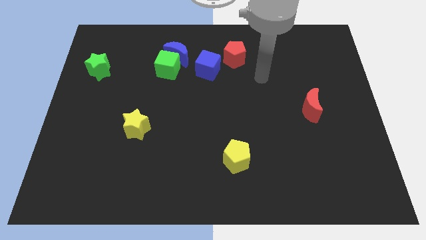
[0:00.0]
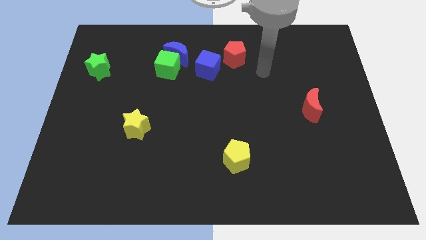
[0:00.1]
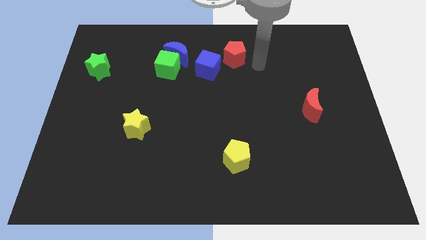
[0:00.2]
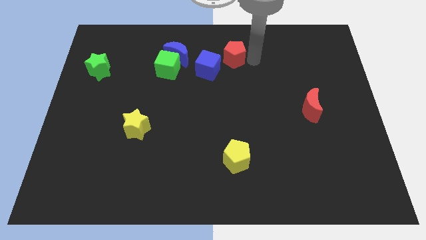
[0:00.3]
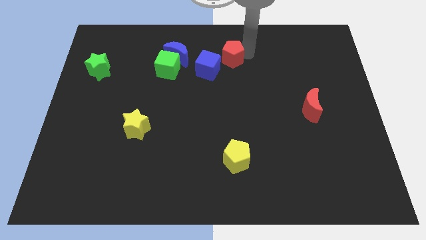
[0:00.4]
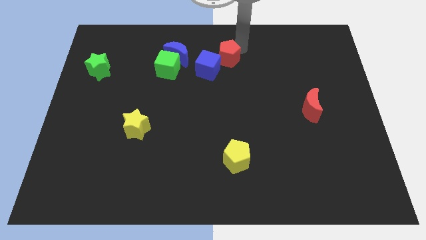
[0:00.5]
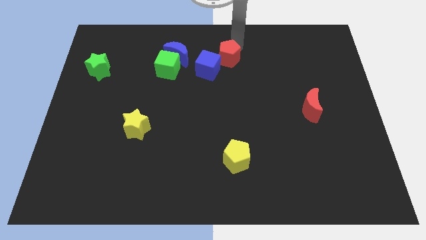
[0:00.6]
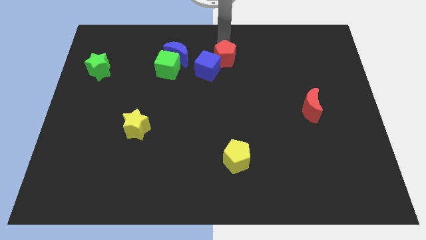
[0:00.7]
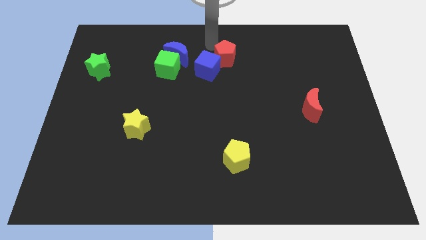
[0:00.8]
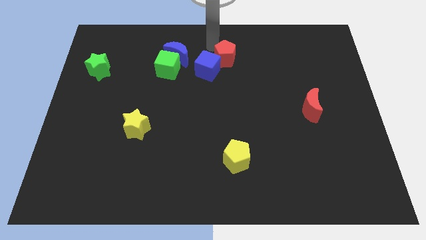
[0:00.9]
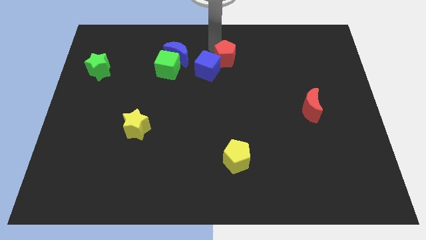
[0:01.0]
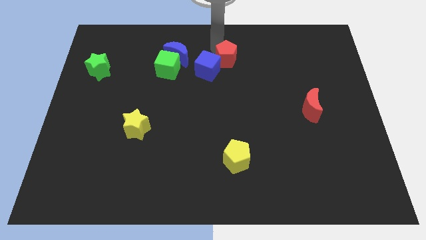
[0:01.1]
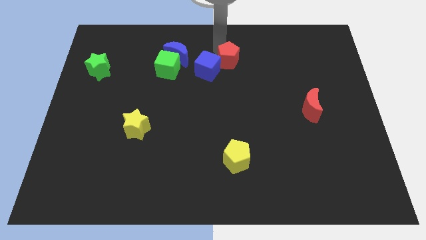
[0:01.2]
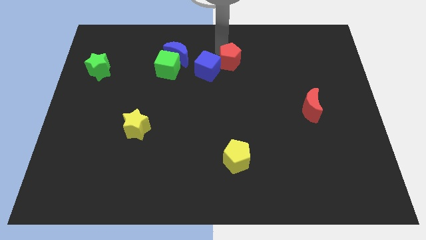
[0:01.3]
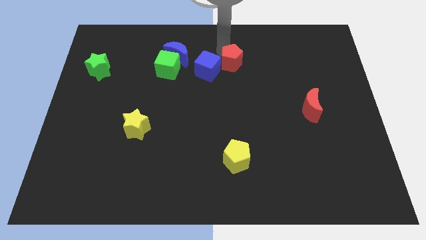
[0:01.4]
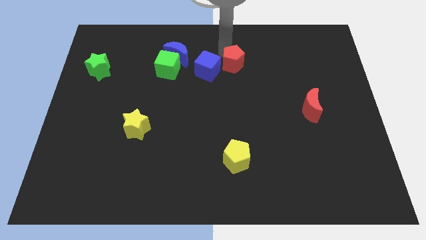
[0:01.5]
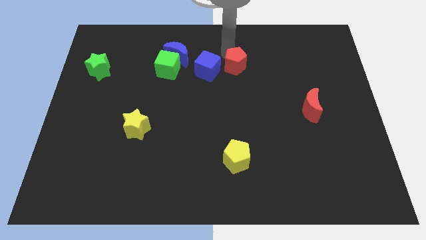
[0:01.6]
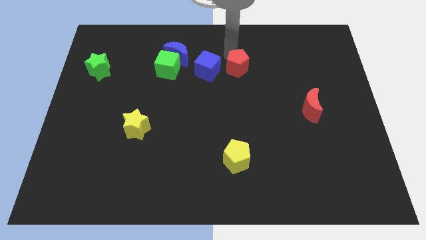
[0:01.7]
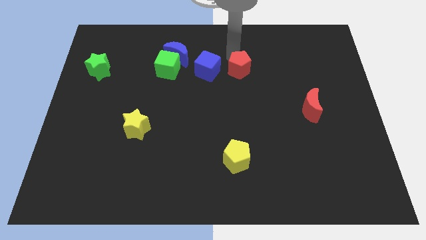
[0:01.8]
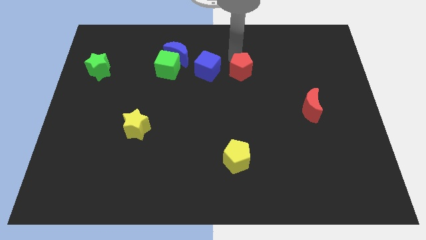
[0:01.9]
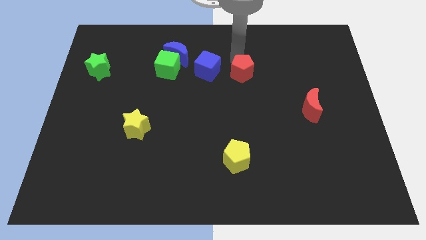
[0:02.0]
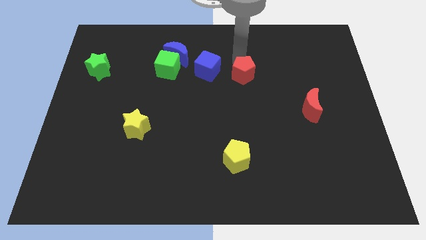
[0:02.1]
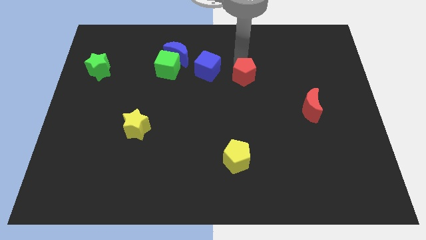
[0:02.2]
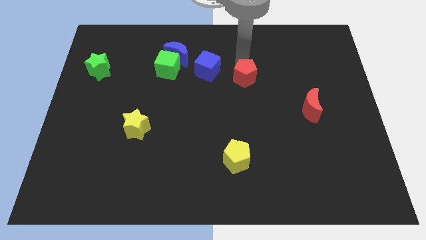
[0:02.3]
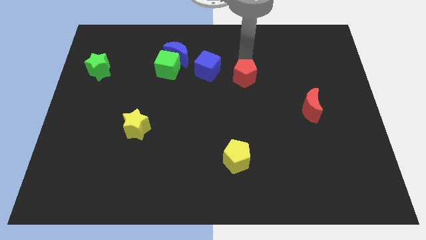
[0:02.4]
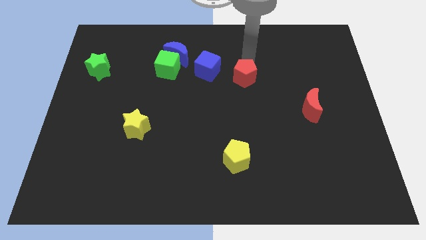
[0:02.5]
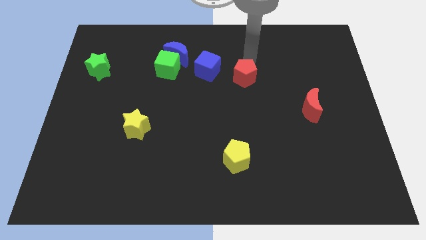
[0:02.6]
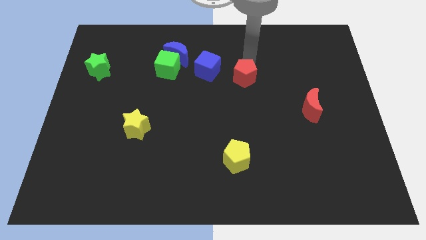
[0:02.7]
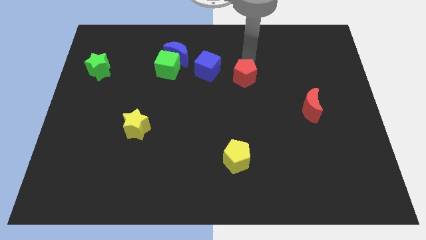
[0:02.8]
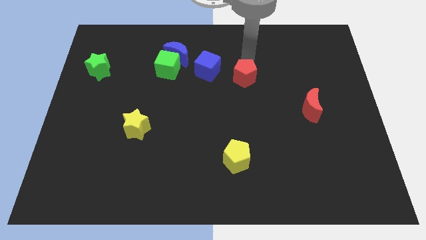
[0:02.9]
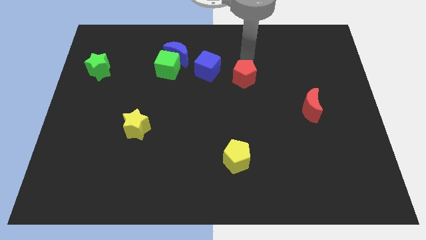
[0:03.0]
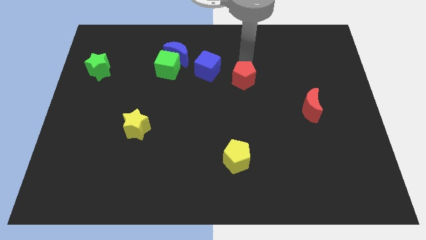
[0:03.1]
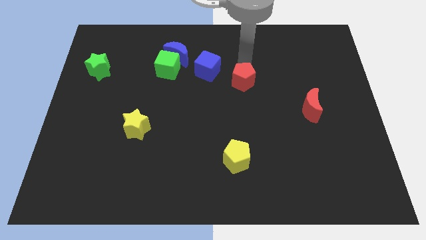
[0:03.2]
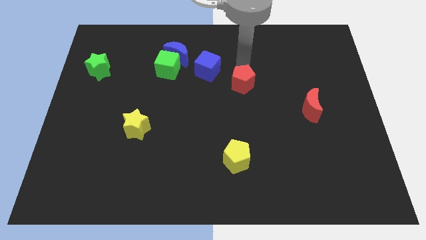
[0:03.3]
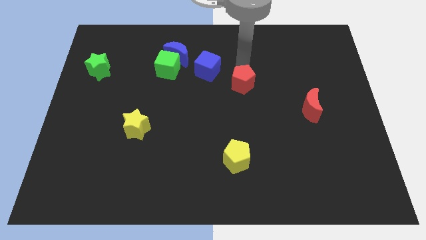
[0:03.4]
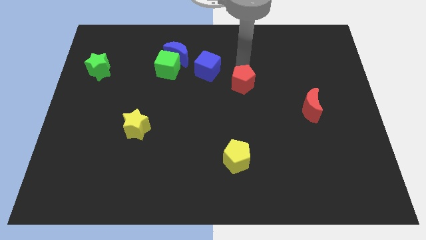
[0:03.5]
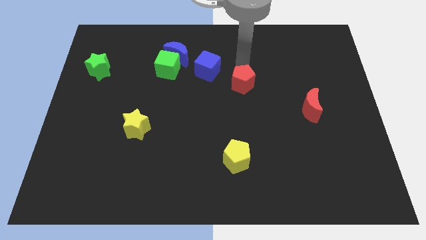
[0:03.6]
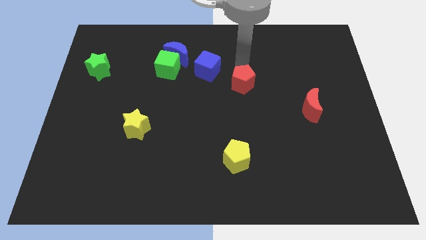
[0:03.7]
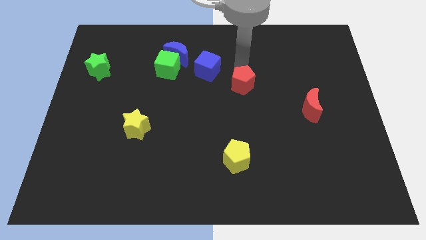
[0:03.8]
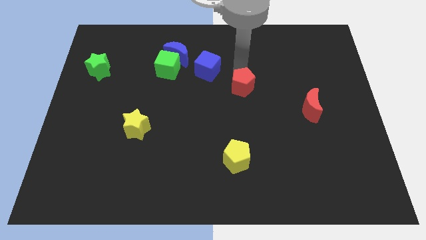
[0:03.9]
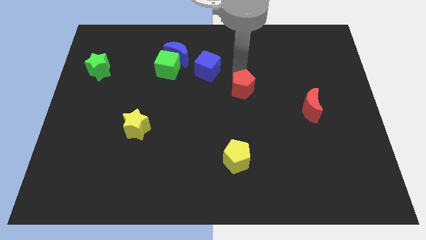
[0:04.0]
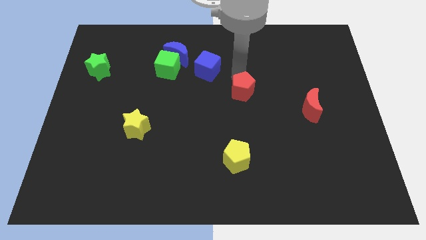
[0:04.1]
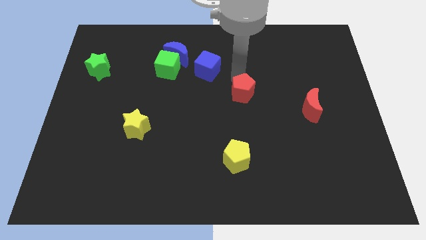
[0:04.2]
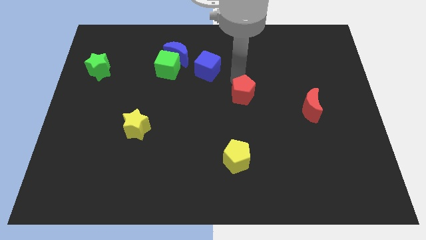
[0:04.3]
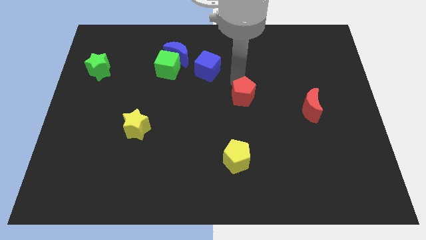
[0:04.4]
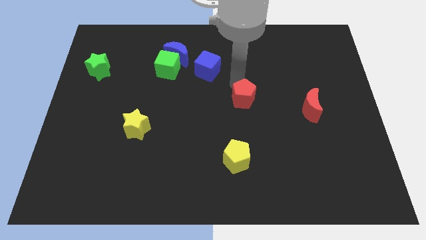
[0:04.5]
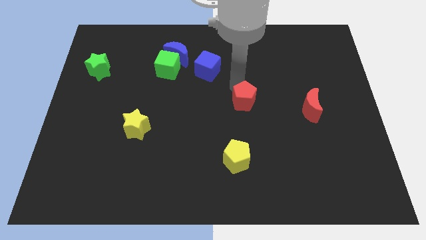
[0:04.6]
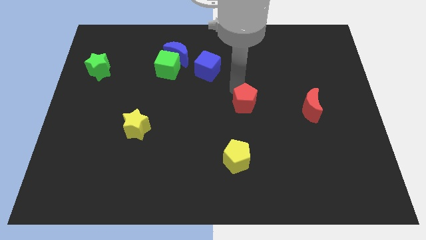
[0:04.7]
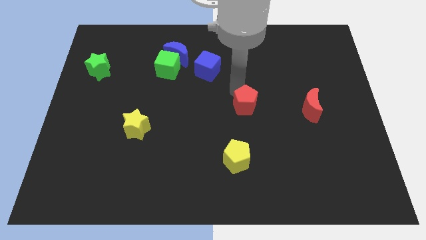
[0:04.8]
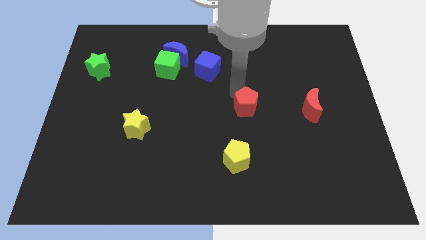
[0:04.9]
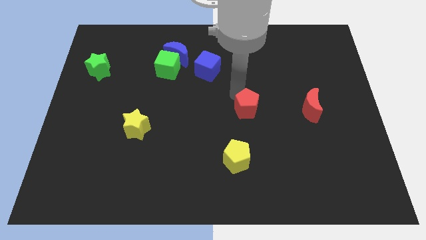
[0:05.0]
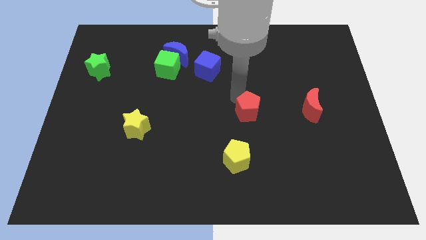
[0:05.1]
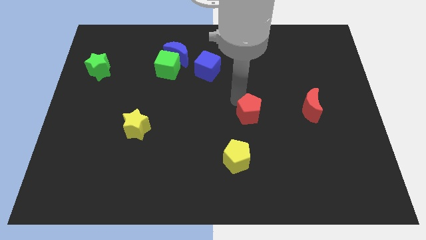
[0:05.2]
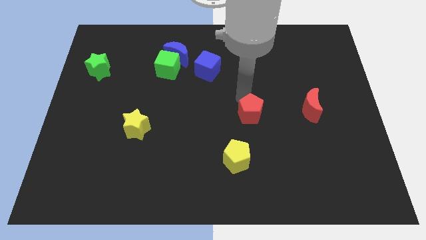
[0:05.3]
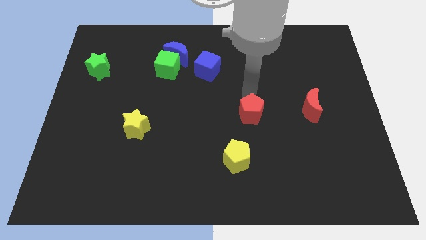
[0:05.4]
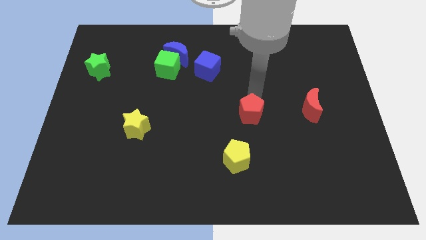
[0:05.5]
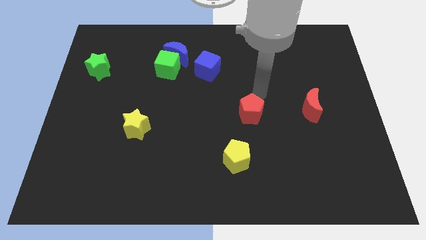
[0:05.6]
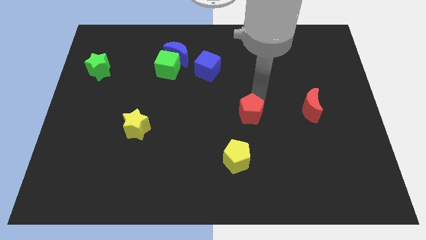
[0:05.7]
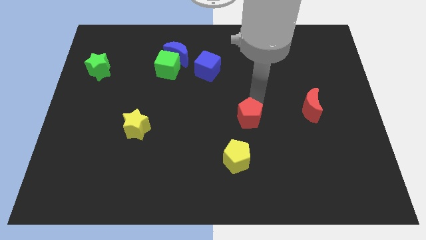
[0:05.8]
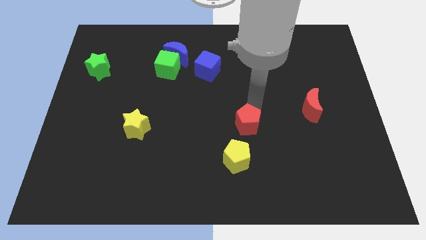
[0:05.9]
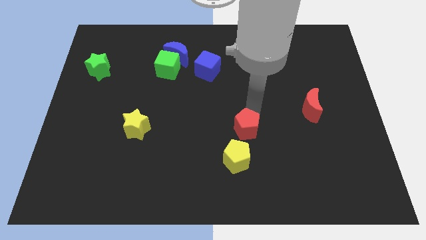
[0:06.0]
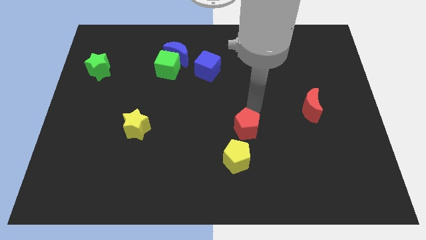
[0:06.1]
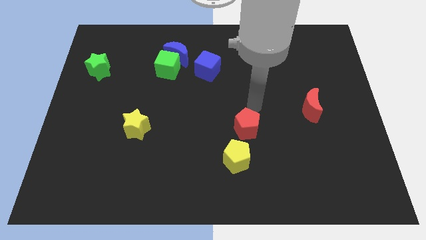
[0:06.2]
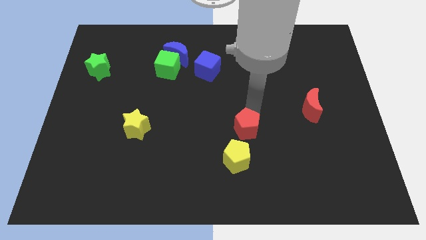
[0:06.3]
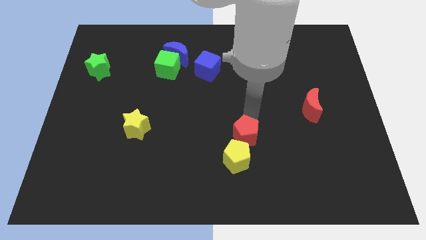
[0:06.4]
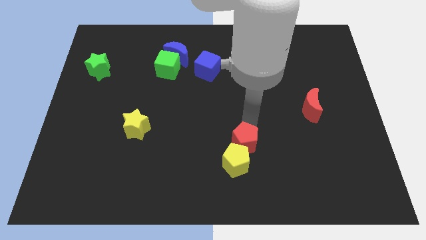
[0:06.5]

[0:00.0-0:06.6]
slide the red pentagon to the yellow pentagon

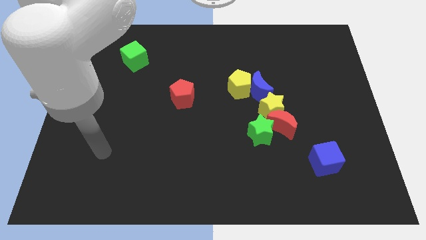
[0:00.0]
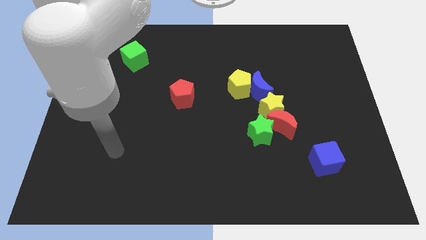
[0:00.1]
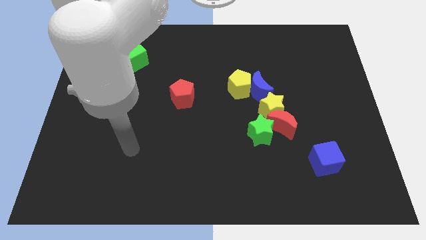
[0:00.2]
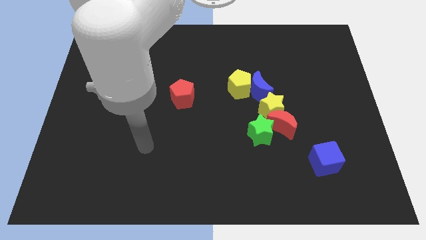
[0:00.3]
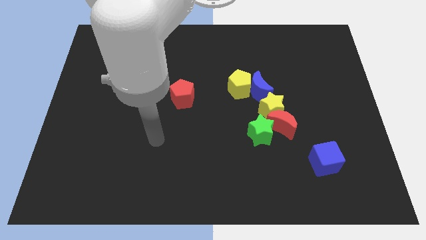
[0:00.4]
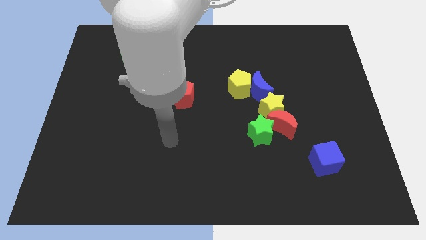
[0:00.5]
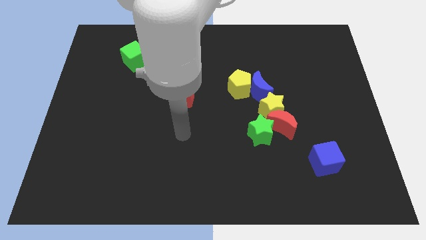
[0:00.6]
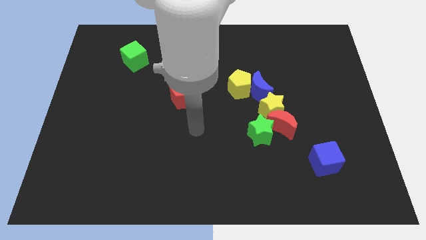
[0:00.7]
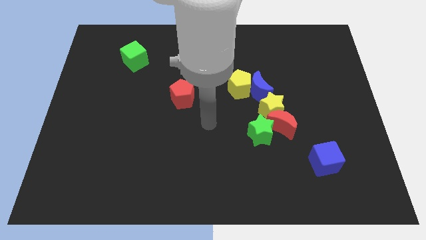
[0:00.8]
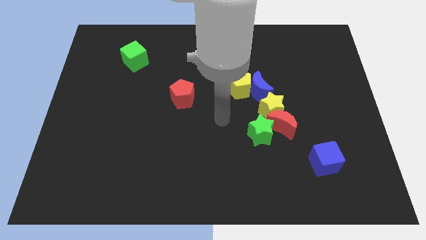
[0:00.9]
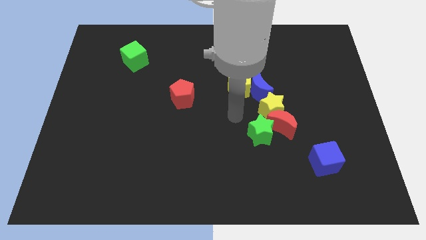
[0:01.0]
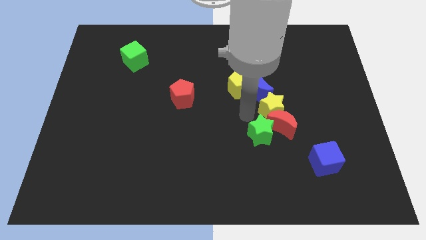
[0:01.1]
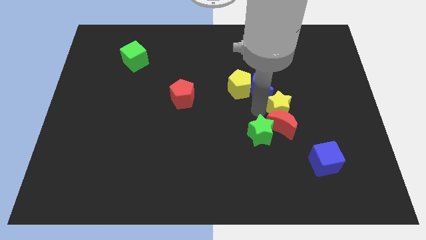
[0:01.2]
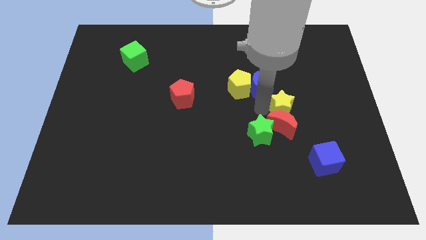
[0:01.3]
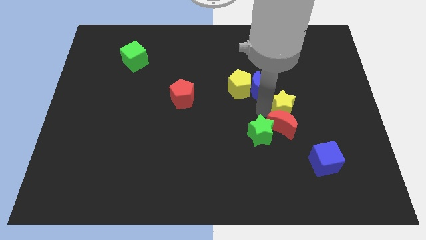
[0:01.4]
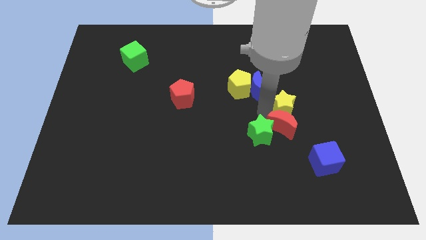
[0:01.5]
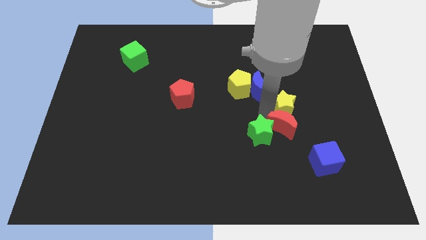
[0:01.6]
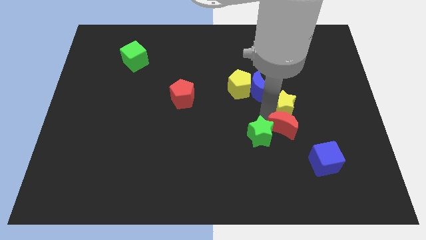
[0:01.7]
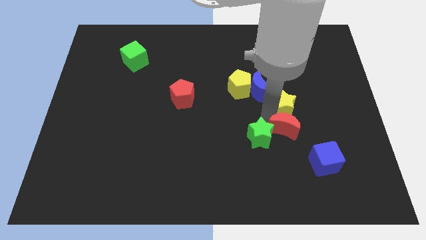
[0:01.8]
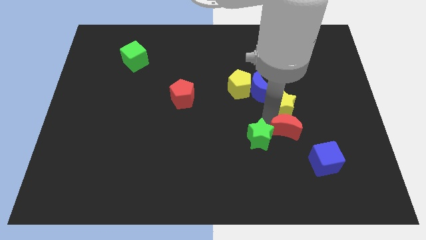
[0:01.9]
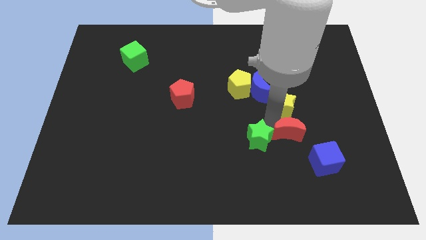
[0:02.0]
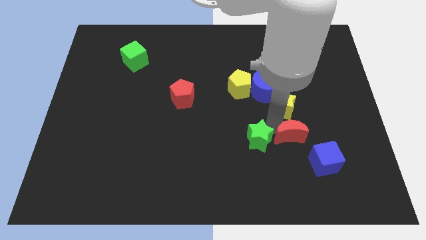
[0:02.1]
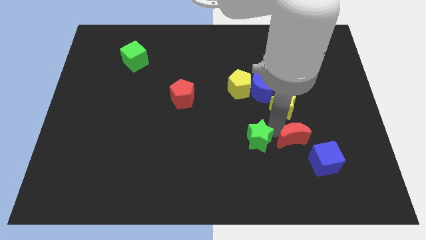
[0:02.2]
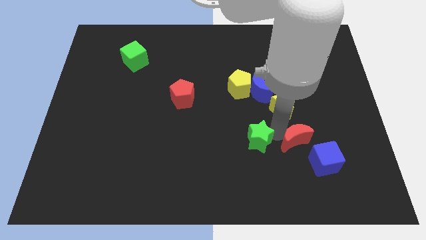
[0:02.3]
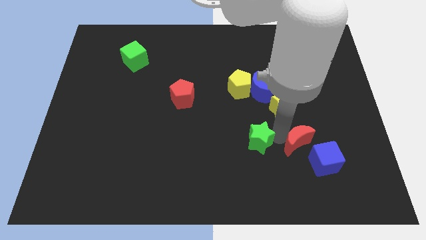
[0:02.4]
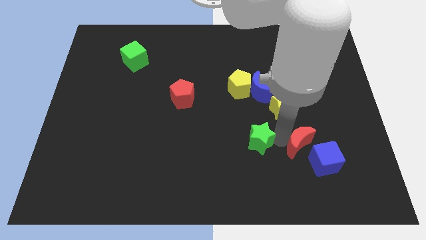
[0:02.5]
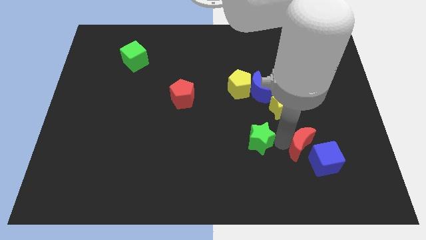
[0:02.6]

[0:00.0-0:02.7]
push the red moon next to the blue cube
